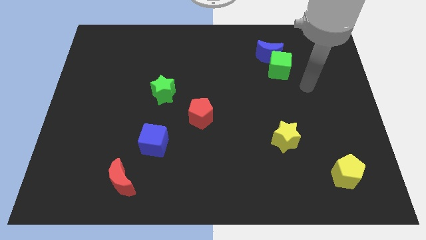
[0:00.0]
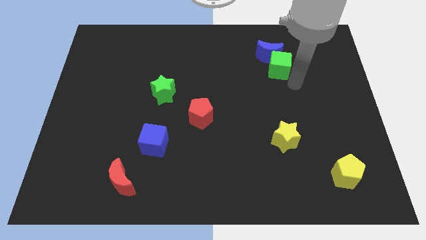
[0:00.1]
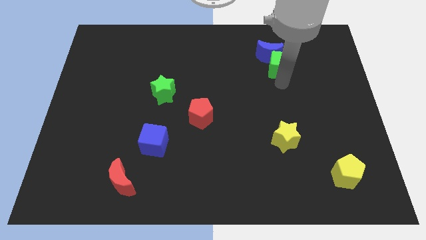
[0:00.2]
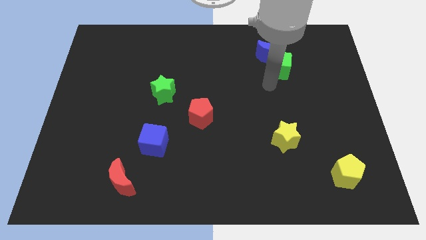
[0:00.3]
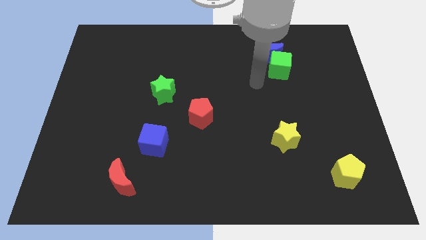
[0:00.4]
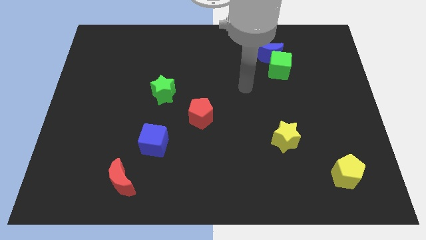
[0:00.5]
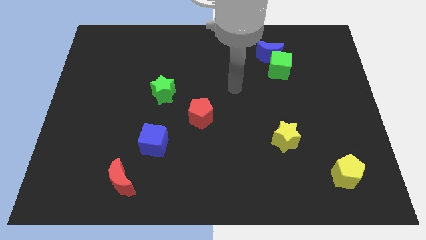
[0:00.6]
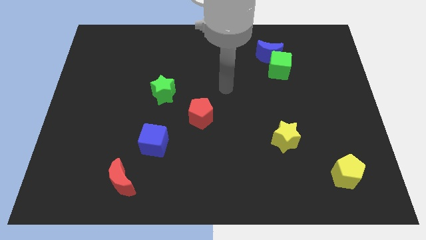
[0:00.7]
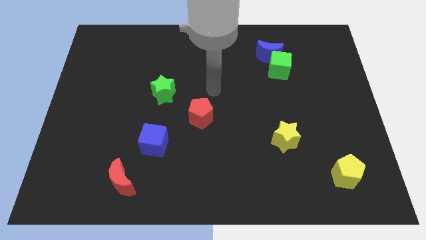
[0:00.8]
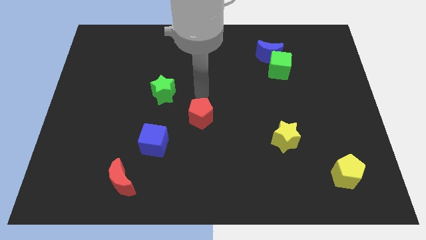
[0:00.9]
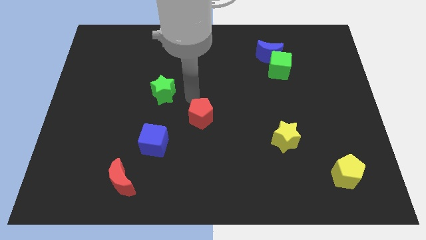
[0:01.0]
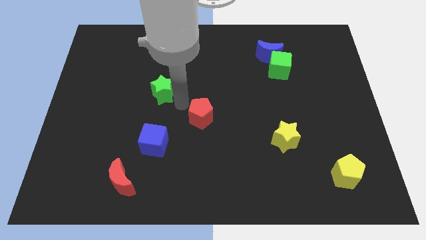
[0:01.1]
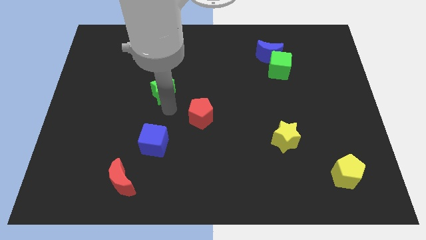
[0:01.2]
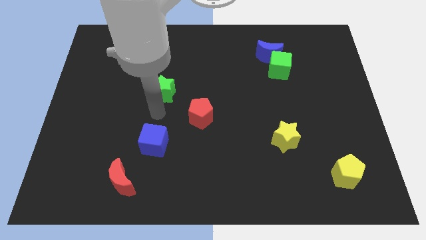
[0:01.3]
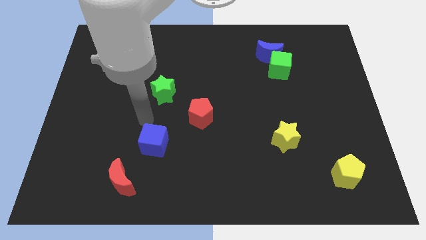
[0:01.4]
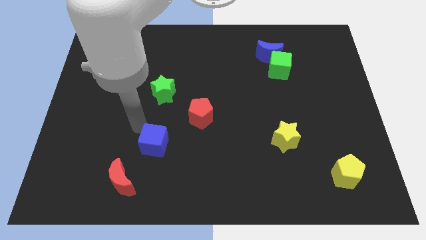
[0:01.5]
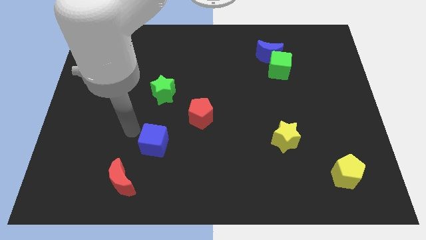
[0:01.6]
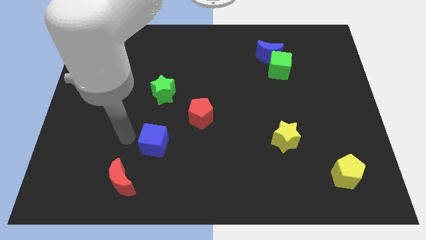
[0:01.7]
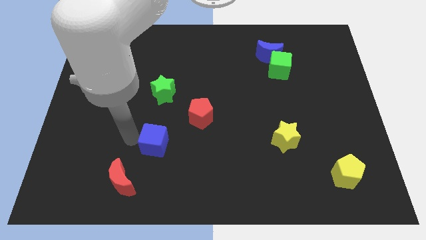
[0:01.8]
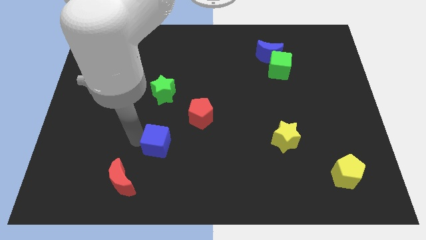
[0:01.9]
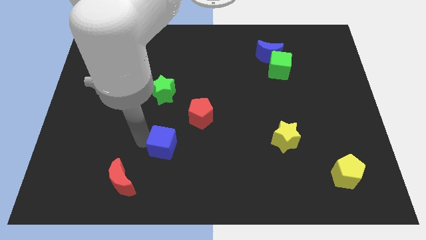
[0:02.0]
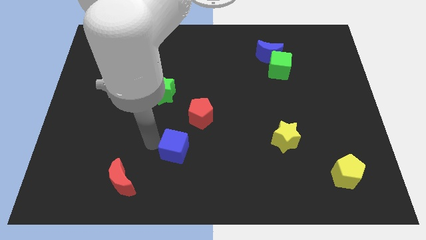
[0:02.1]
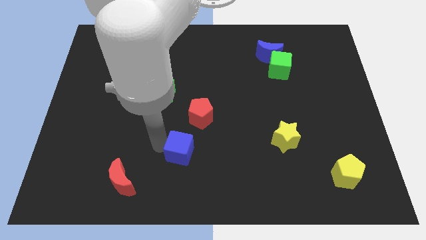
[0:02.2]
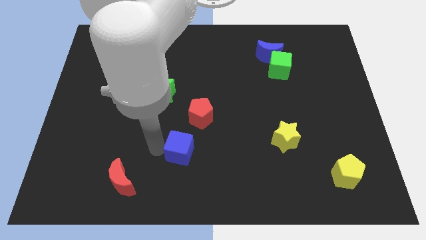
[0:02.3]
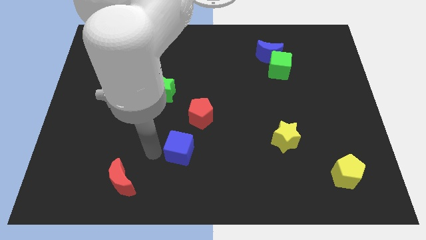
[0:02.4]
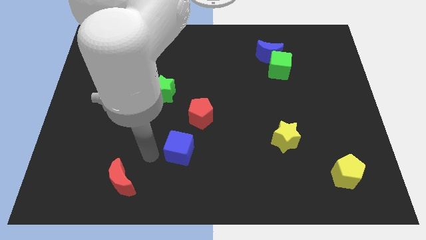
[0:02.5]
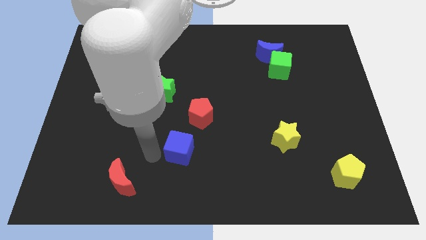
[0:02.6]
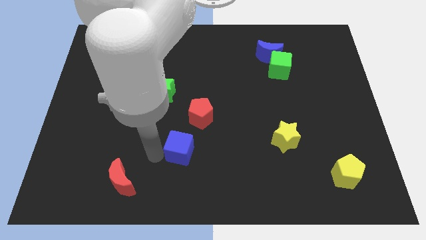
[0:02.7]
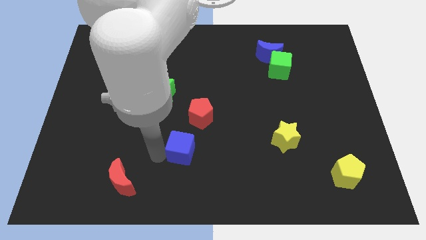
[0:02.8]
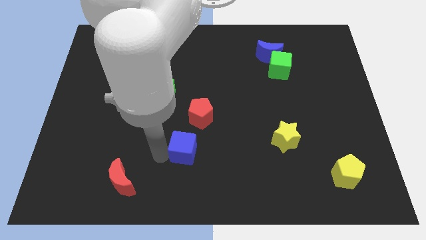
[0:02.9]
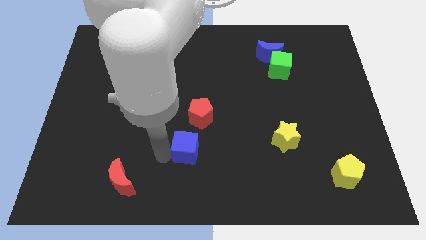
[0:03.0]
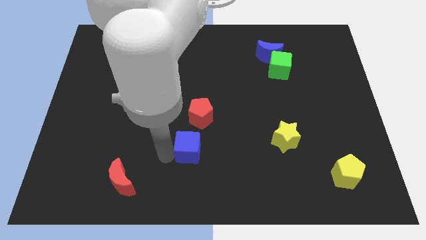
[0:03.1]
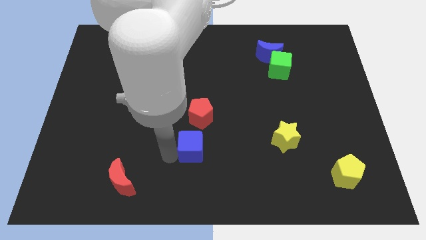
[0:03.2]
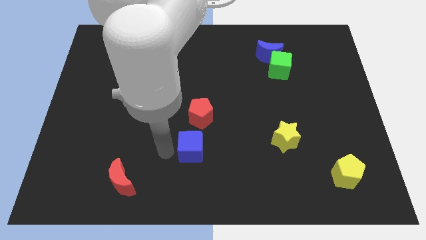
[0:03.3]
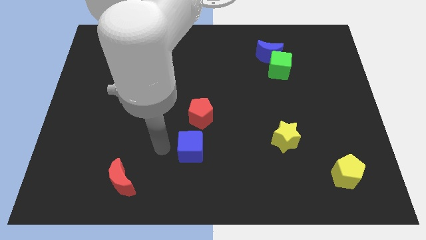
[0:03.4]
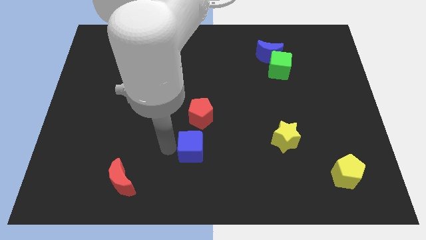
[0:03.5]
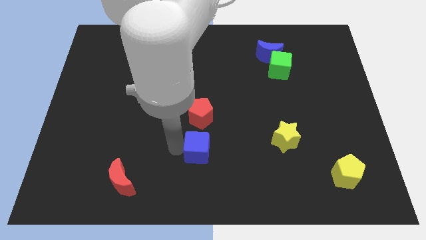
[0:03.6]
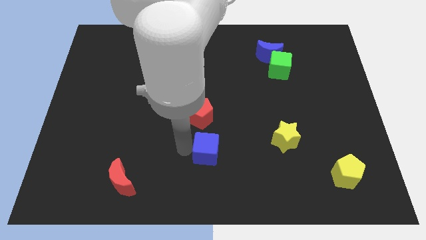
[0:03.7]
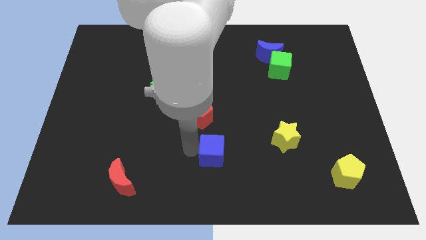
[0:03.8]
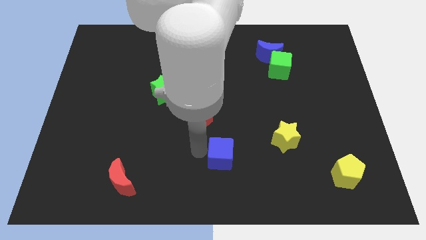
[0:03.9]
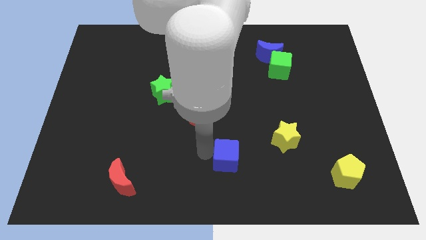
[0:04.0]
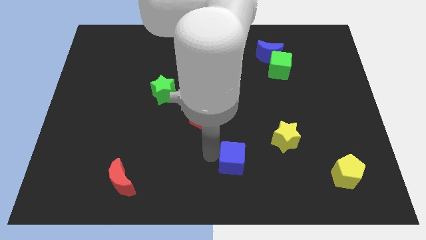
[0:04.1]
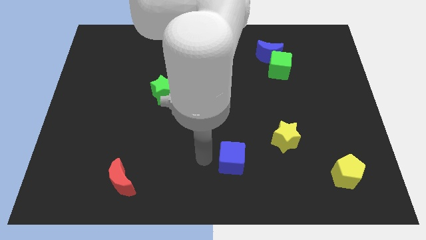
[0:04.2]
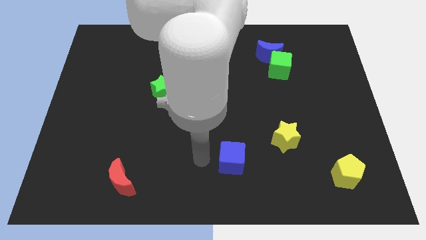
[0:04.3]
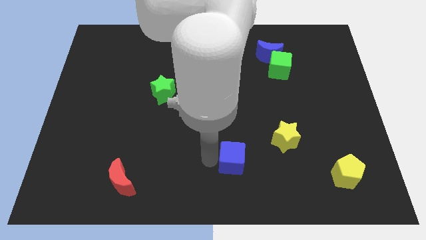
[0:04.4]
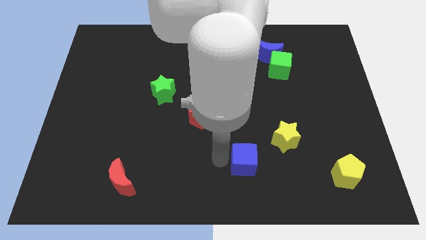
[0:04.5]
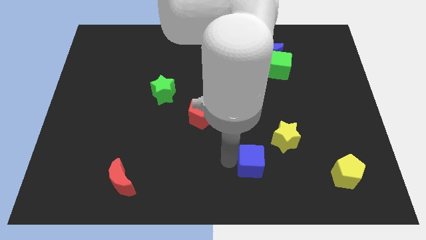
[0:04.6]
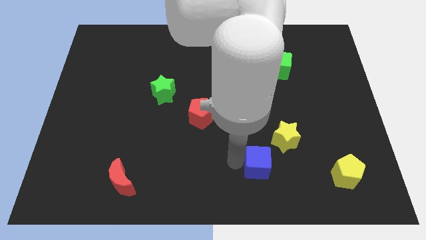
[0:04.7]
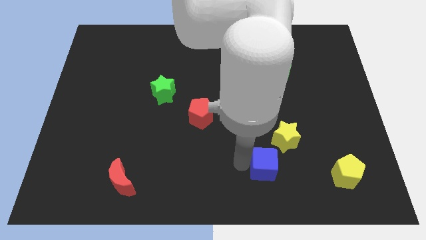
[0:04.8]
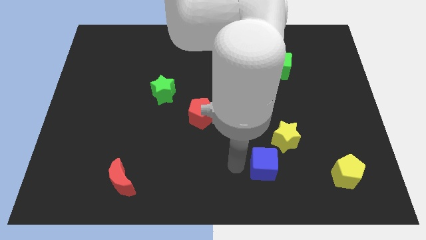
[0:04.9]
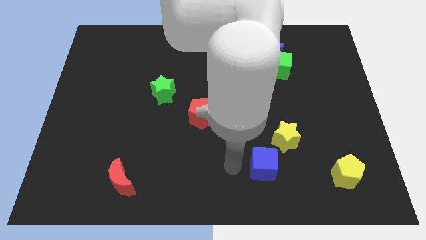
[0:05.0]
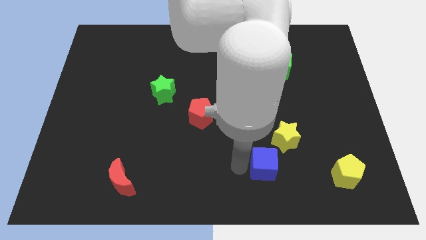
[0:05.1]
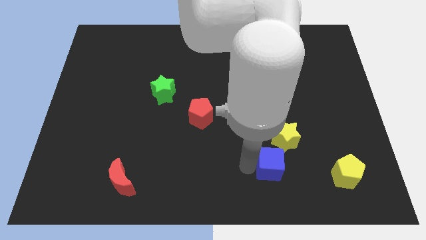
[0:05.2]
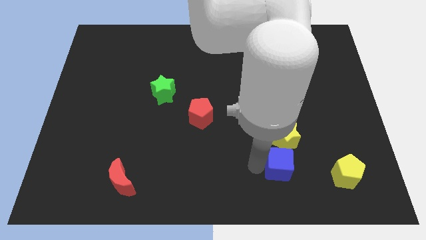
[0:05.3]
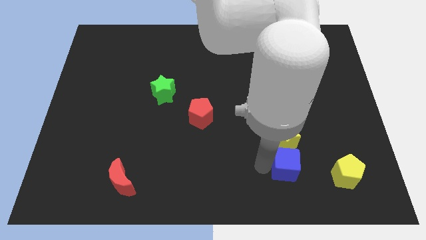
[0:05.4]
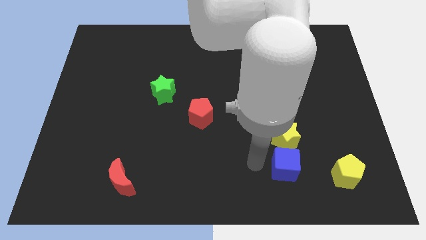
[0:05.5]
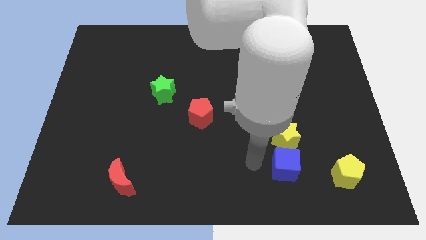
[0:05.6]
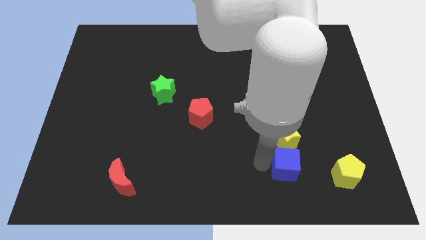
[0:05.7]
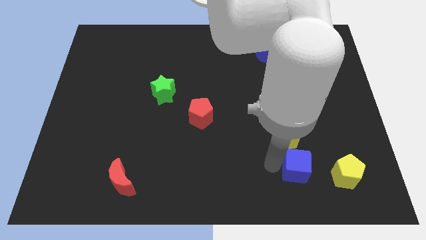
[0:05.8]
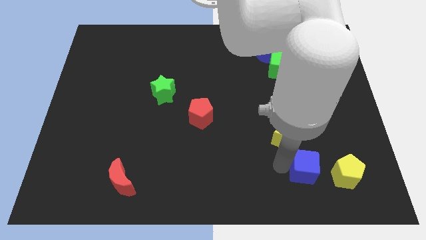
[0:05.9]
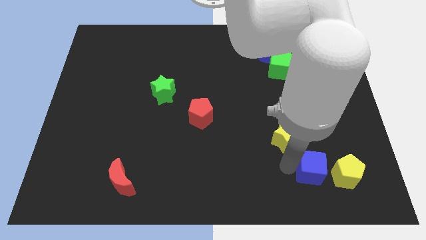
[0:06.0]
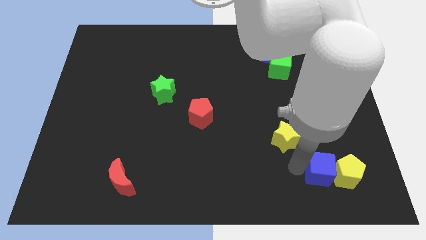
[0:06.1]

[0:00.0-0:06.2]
put the blue cube towards the yellow pentagon

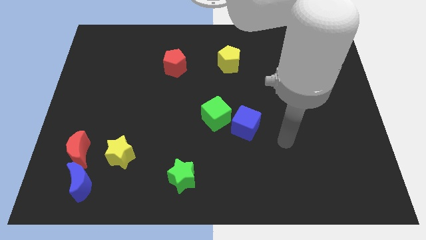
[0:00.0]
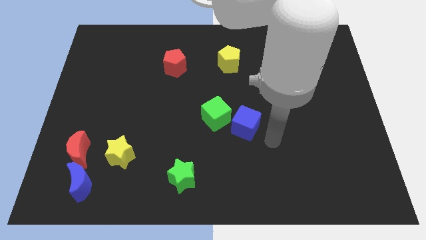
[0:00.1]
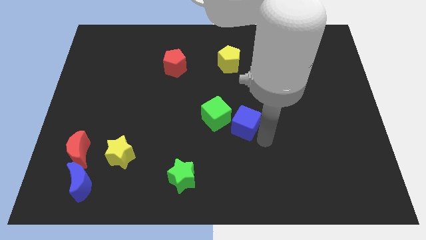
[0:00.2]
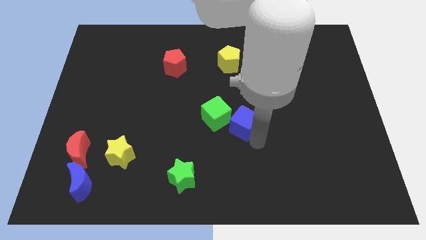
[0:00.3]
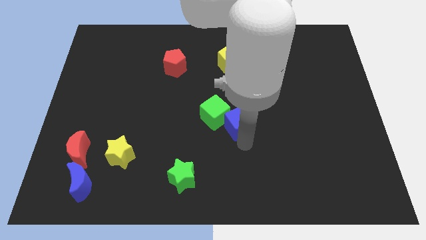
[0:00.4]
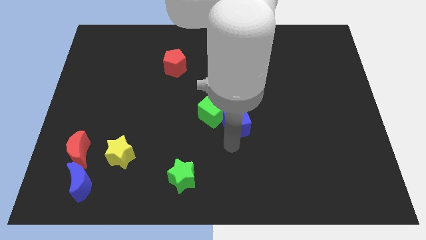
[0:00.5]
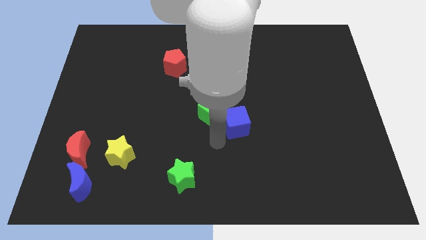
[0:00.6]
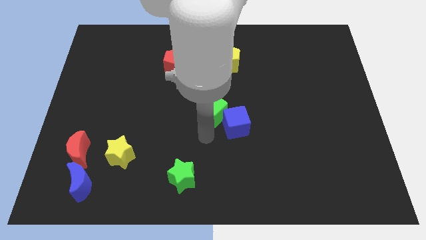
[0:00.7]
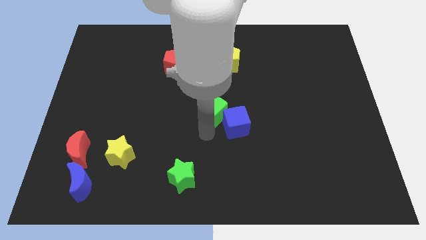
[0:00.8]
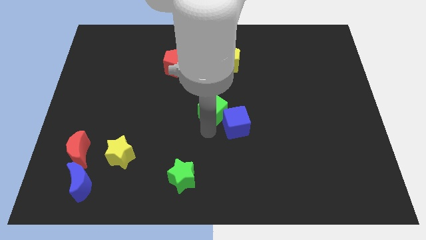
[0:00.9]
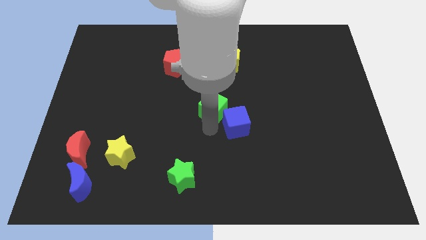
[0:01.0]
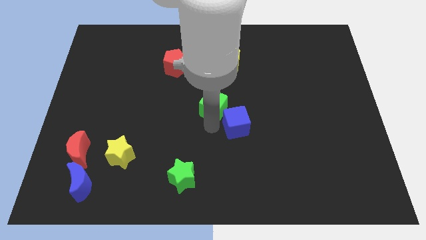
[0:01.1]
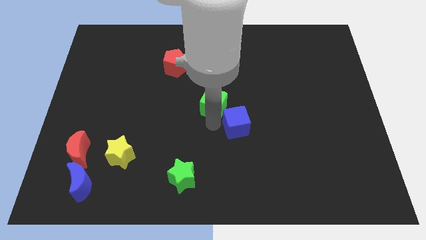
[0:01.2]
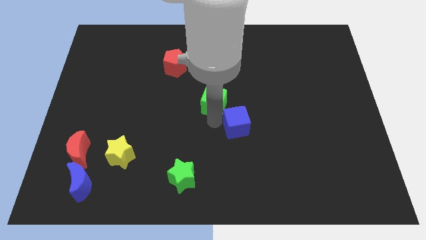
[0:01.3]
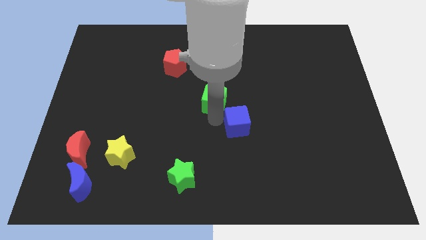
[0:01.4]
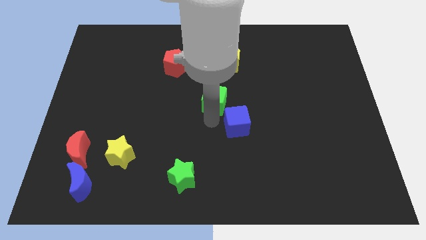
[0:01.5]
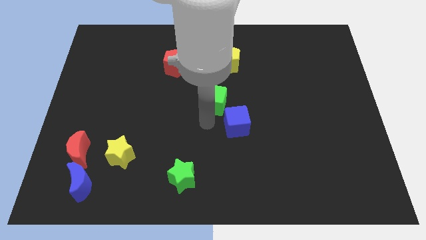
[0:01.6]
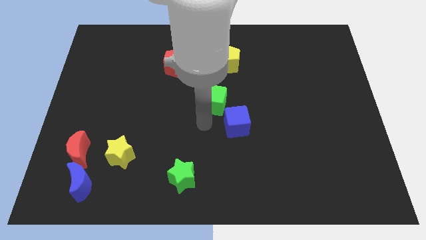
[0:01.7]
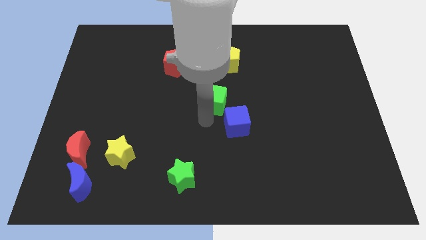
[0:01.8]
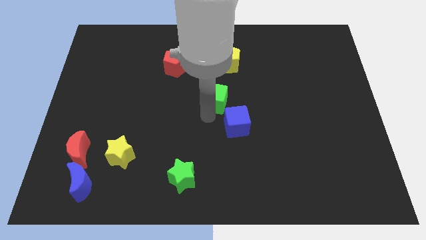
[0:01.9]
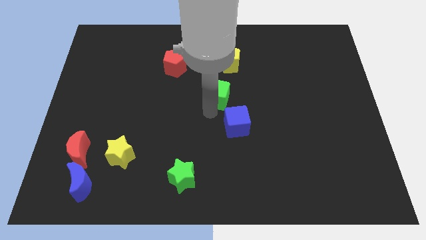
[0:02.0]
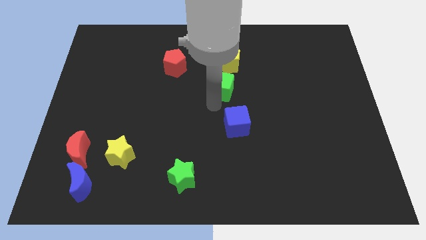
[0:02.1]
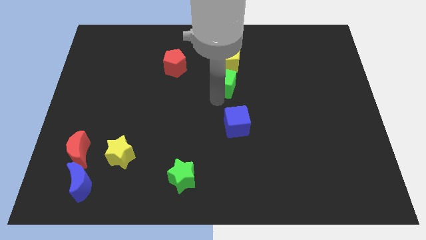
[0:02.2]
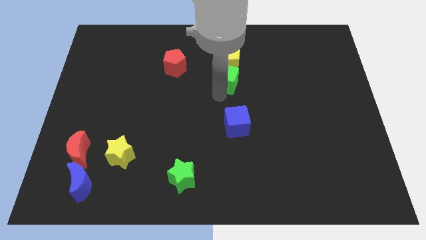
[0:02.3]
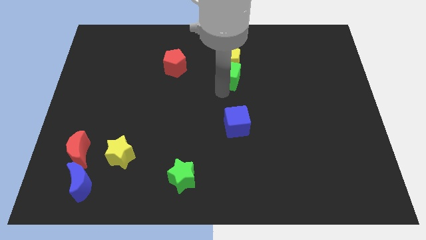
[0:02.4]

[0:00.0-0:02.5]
push the green cube to the yellow pentagon

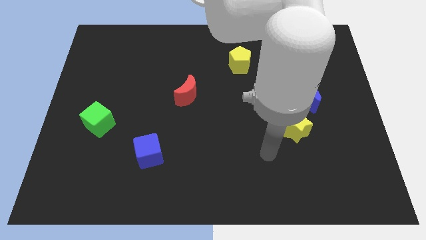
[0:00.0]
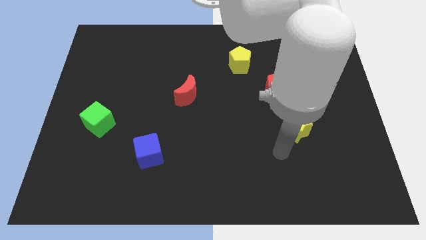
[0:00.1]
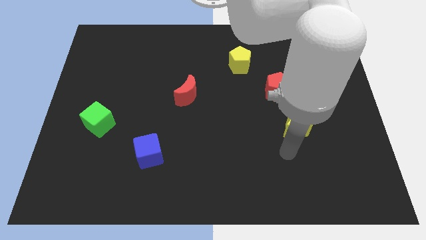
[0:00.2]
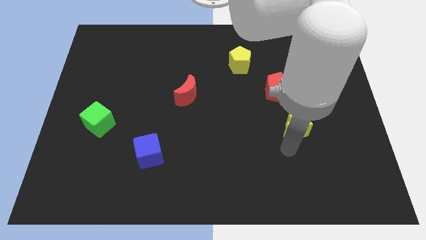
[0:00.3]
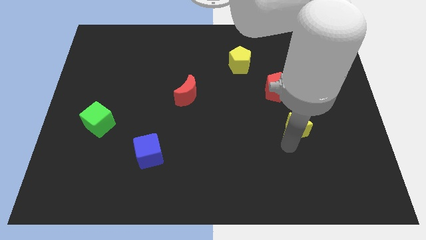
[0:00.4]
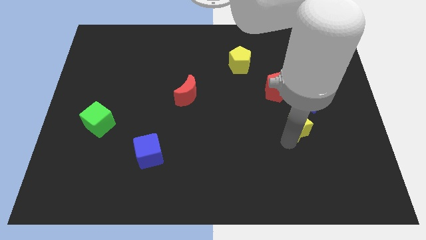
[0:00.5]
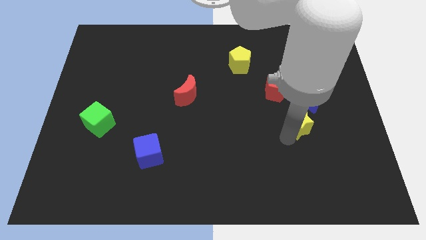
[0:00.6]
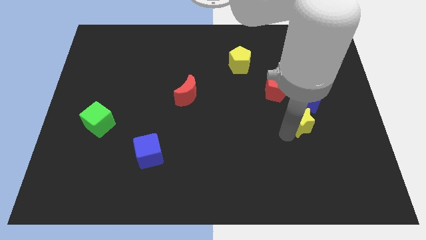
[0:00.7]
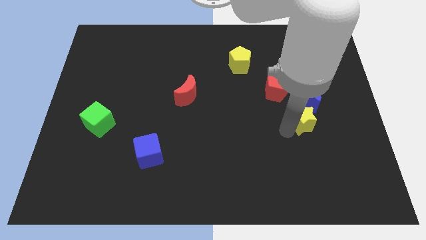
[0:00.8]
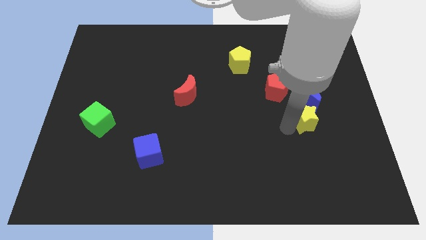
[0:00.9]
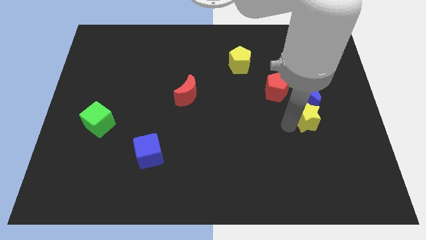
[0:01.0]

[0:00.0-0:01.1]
put the yellow star close to the blue moon
